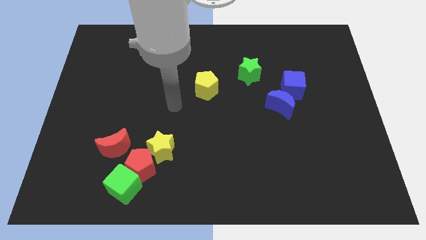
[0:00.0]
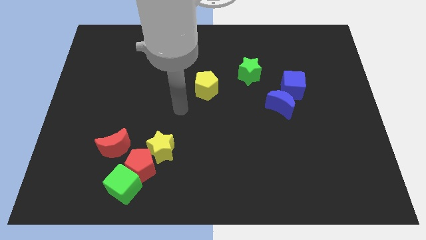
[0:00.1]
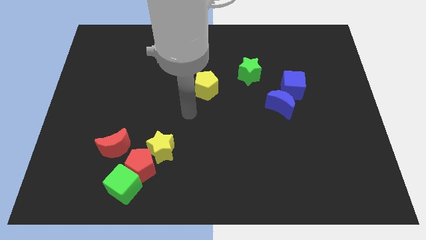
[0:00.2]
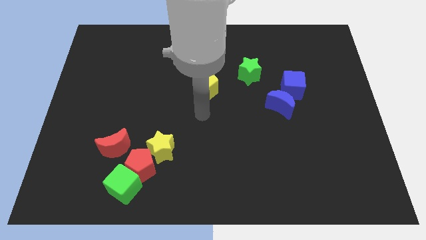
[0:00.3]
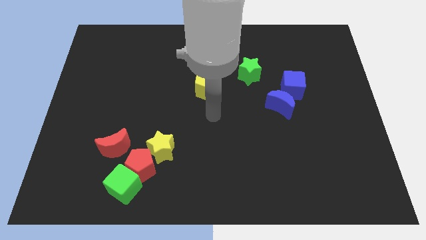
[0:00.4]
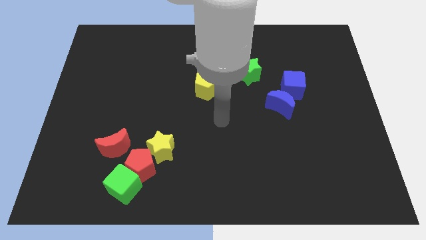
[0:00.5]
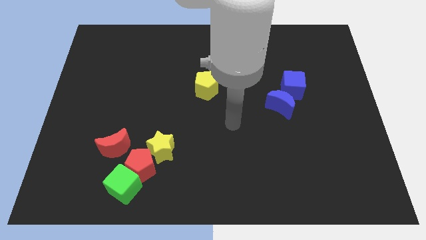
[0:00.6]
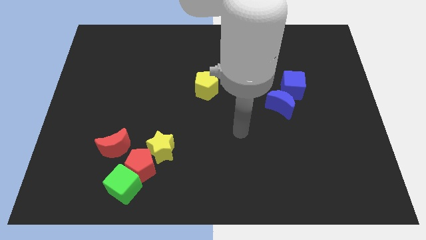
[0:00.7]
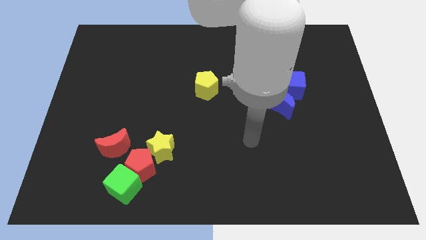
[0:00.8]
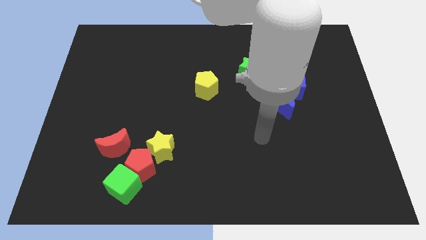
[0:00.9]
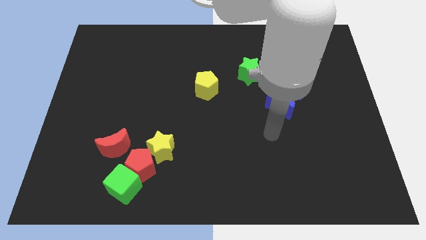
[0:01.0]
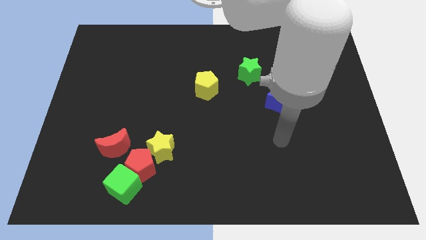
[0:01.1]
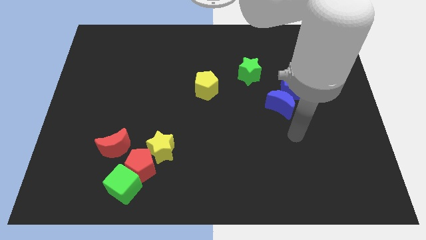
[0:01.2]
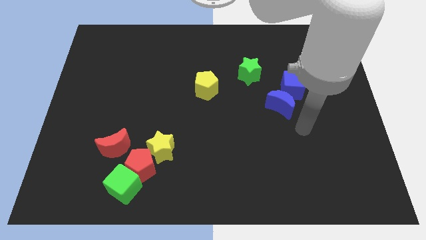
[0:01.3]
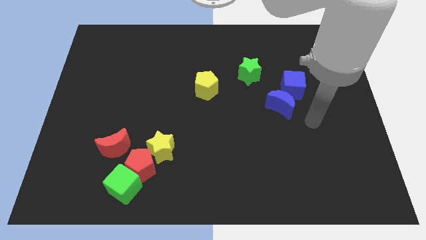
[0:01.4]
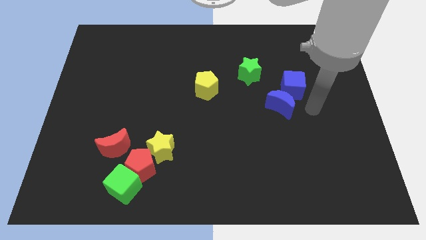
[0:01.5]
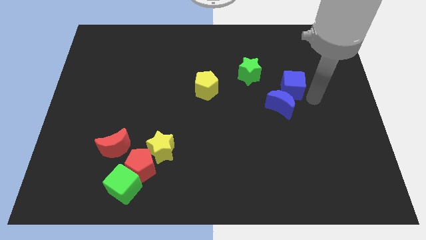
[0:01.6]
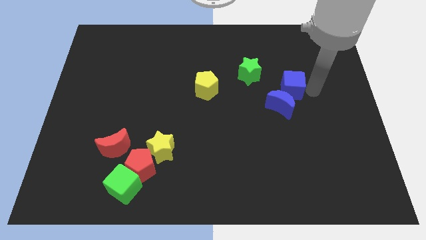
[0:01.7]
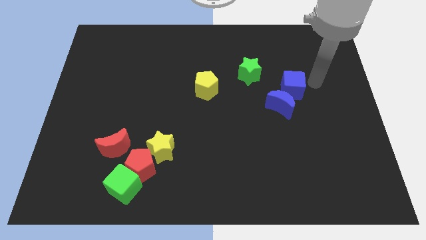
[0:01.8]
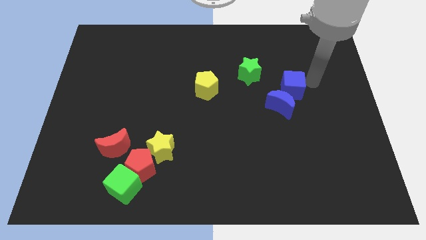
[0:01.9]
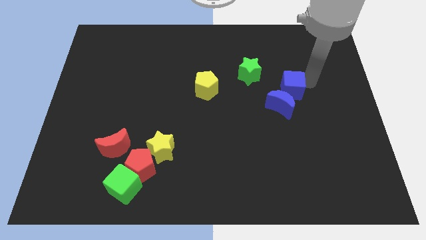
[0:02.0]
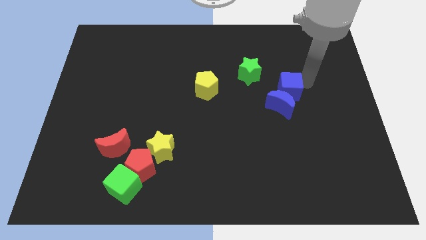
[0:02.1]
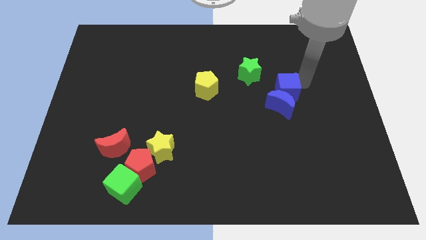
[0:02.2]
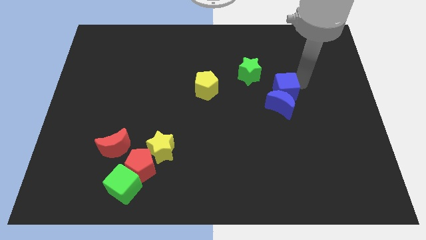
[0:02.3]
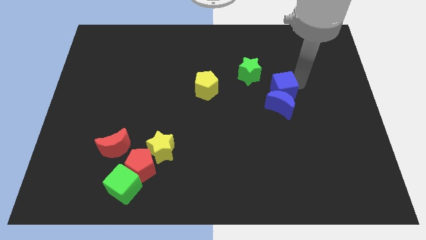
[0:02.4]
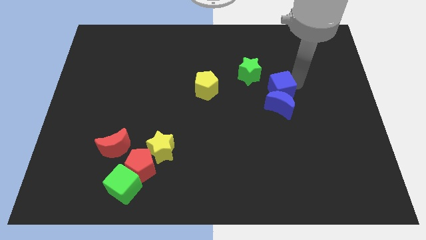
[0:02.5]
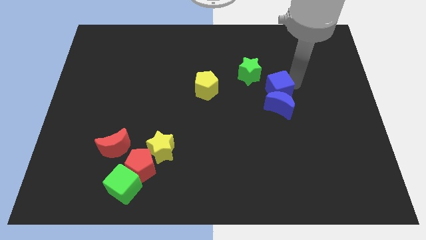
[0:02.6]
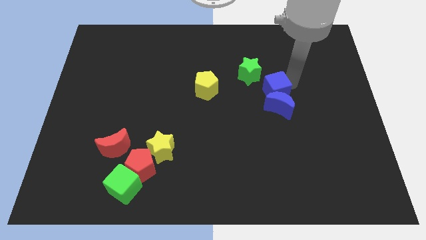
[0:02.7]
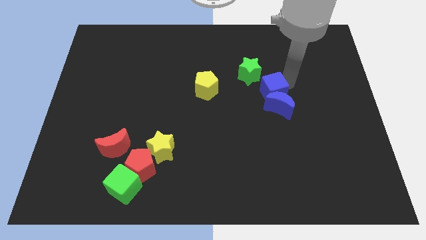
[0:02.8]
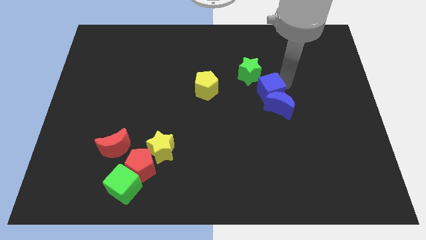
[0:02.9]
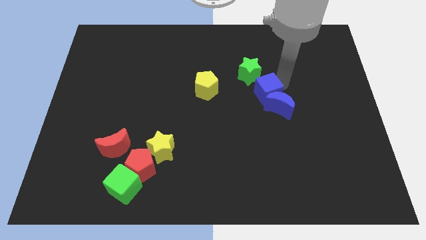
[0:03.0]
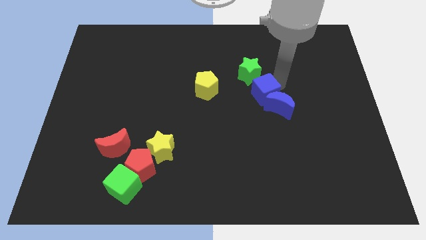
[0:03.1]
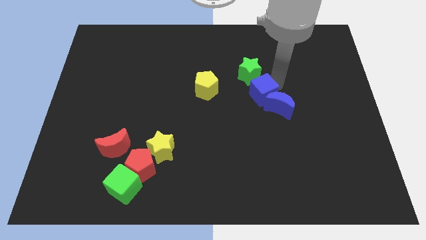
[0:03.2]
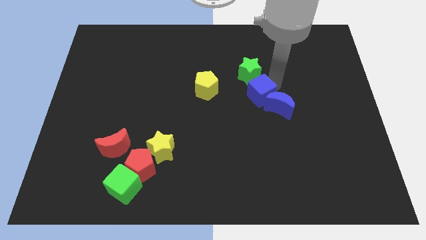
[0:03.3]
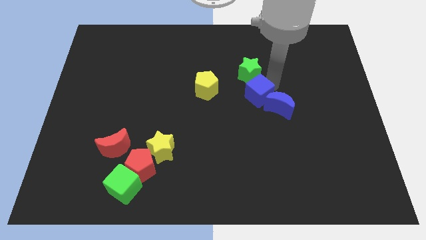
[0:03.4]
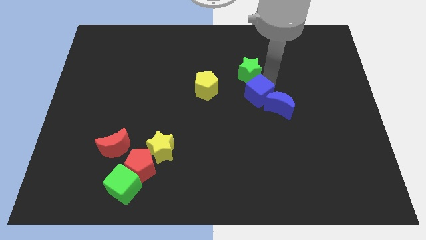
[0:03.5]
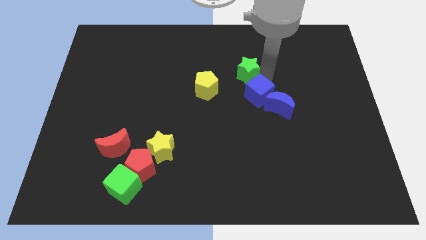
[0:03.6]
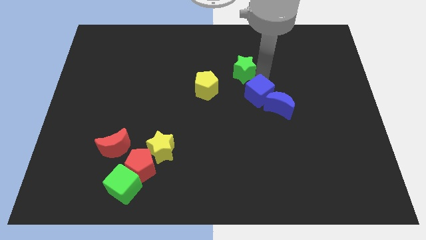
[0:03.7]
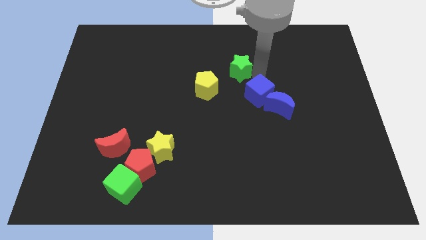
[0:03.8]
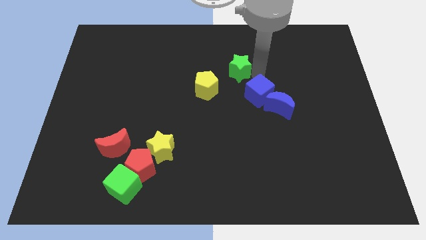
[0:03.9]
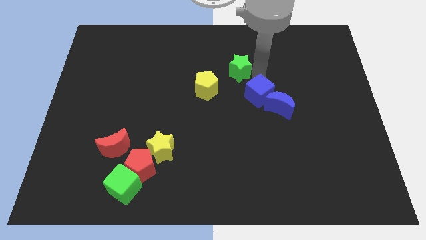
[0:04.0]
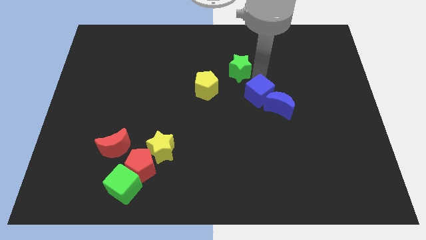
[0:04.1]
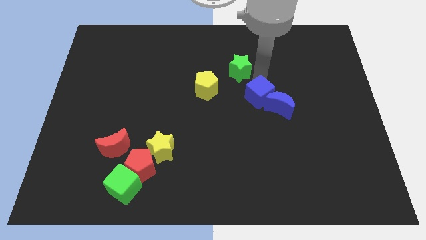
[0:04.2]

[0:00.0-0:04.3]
move the blue cube diagonally down and to the left a little

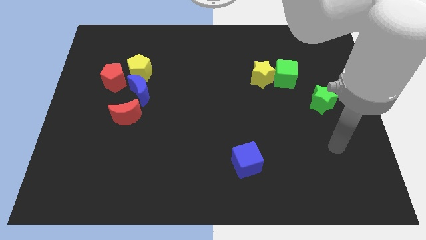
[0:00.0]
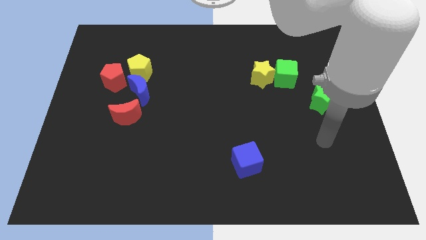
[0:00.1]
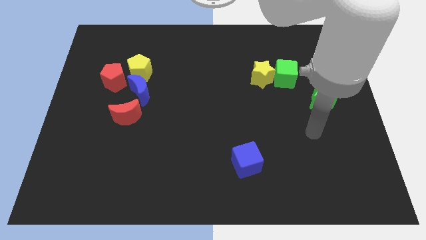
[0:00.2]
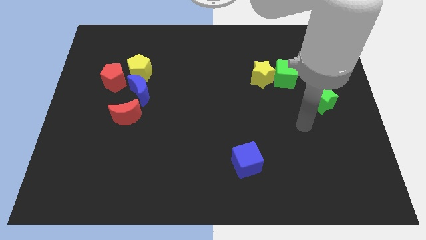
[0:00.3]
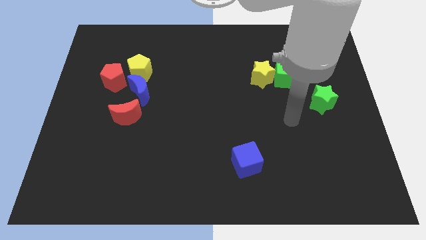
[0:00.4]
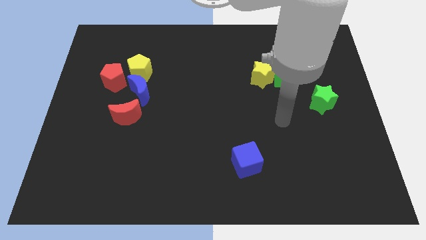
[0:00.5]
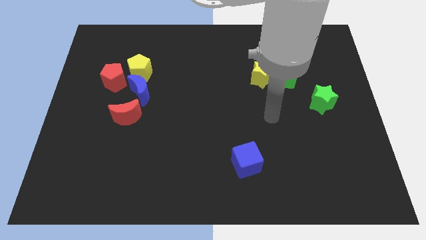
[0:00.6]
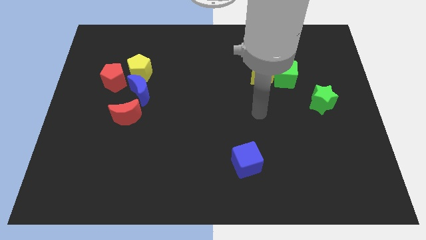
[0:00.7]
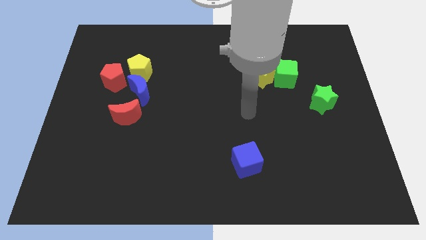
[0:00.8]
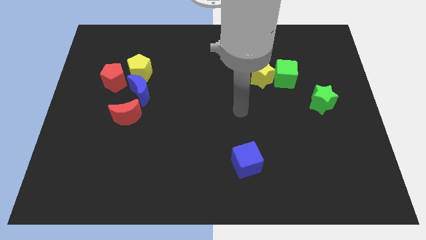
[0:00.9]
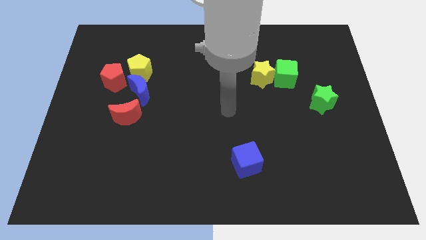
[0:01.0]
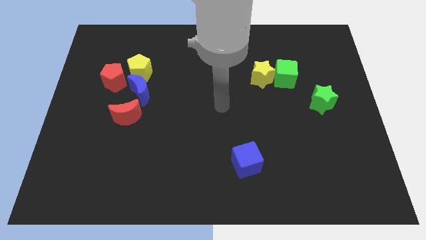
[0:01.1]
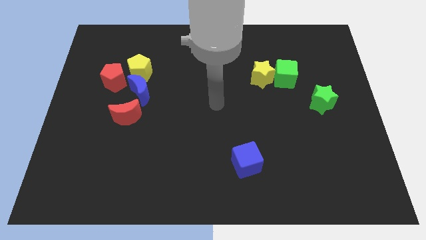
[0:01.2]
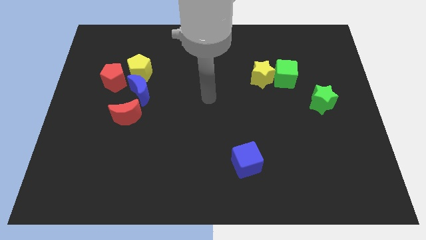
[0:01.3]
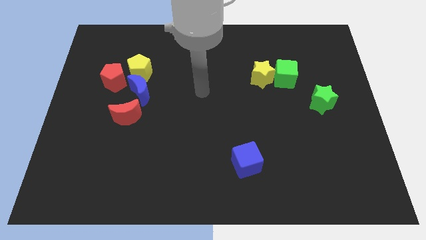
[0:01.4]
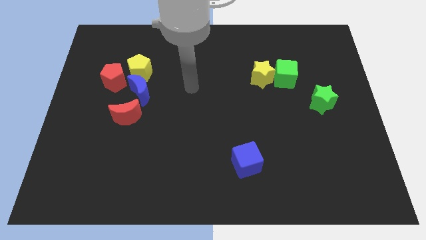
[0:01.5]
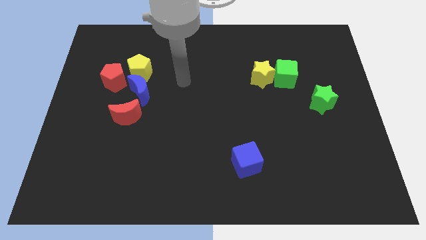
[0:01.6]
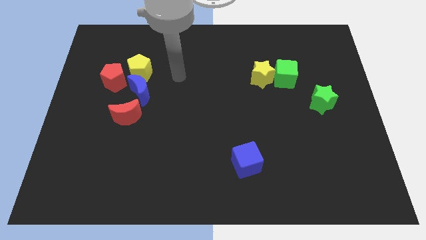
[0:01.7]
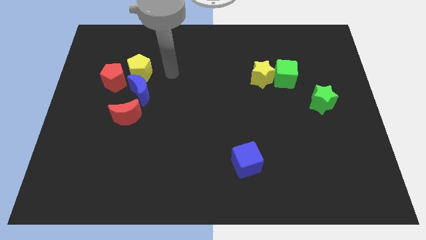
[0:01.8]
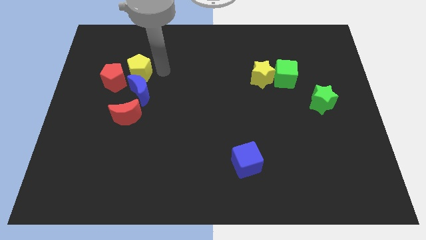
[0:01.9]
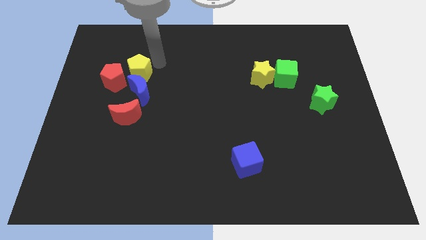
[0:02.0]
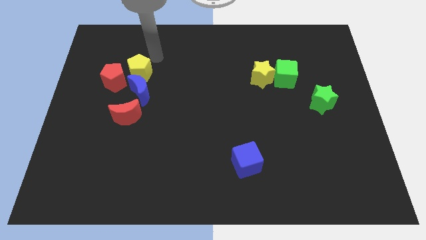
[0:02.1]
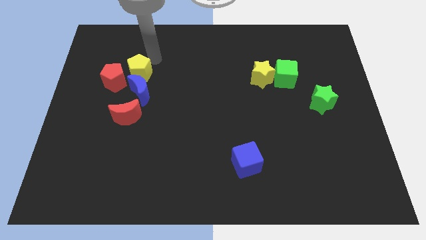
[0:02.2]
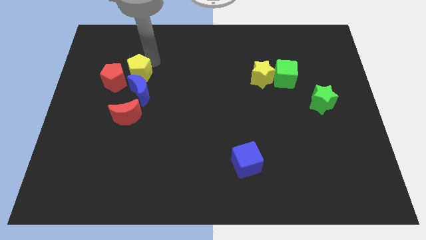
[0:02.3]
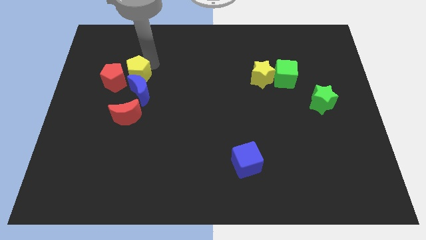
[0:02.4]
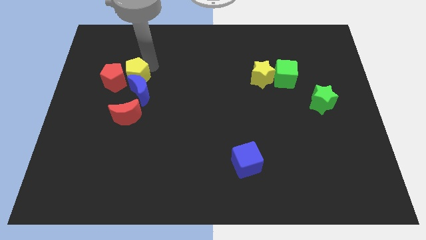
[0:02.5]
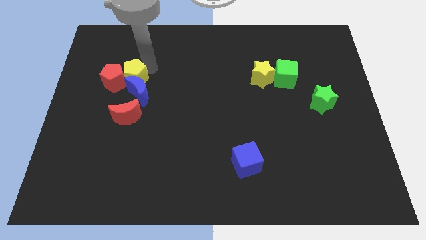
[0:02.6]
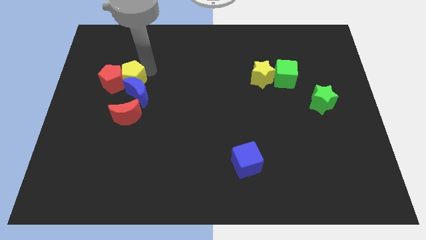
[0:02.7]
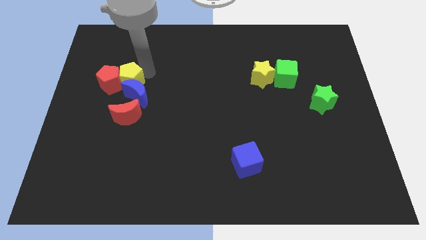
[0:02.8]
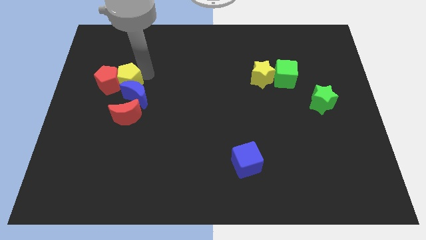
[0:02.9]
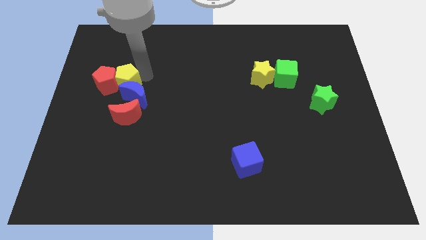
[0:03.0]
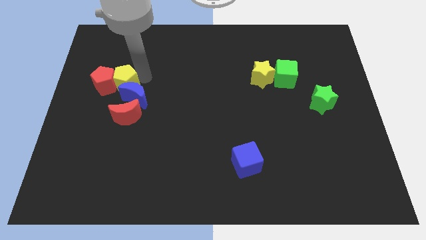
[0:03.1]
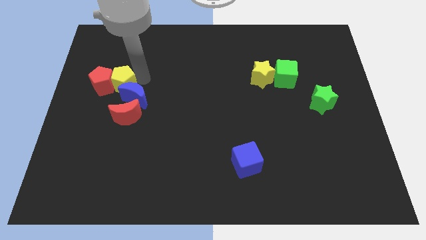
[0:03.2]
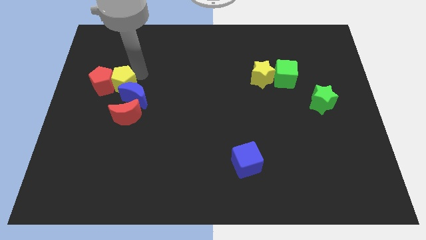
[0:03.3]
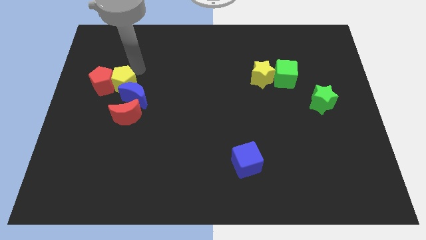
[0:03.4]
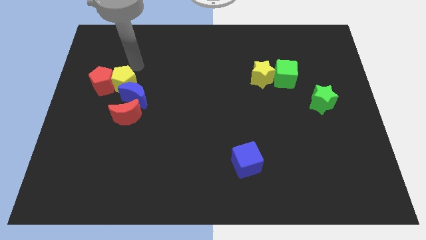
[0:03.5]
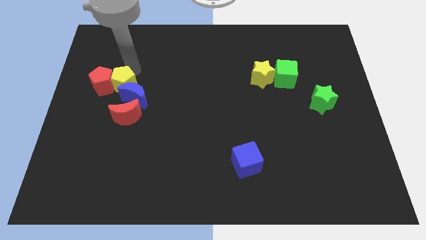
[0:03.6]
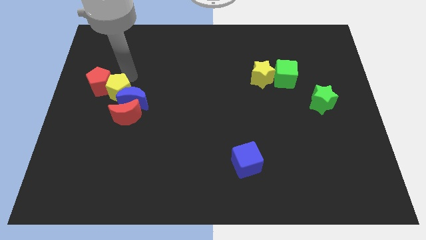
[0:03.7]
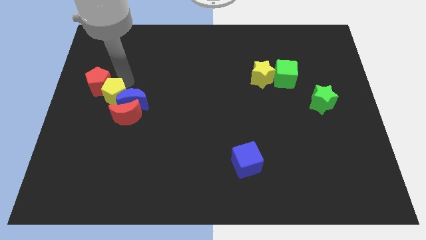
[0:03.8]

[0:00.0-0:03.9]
push the yellow pentagon a little downwards

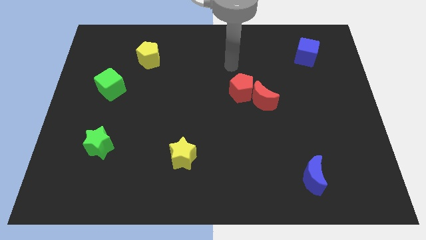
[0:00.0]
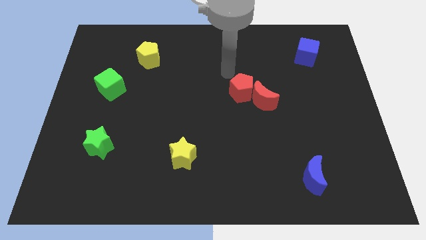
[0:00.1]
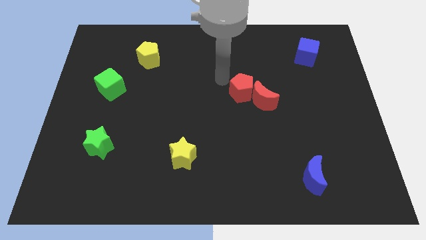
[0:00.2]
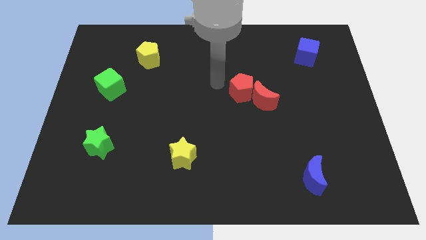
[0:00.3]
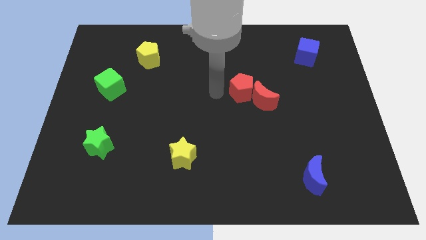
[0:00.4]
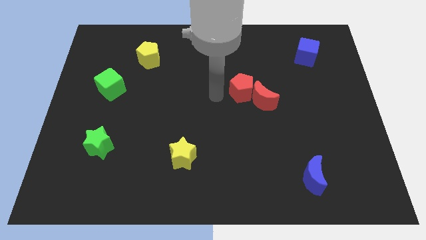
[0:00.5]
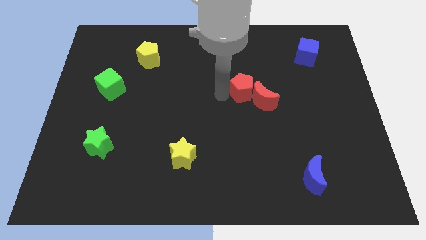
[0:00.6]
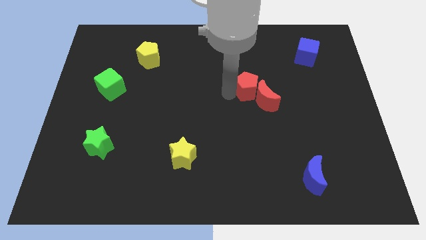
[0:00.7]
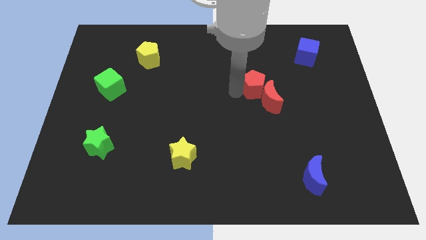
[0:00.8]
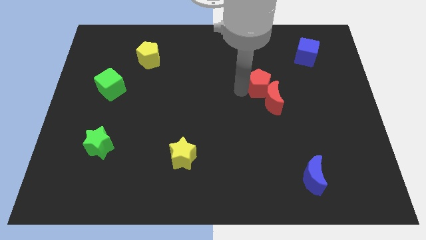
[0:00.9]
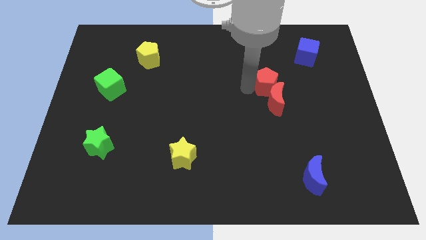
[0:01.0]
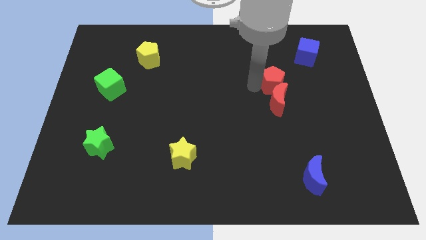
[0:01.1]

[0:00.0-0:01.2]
slightly move the red pentagon to the right
